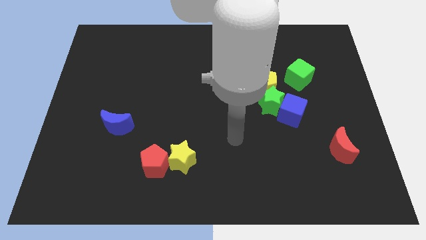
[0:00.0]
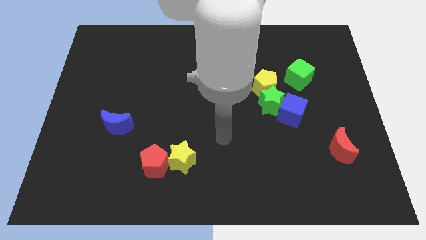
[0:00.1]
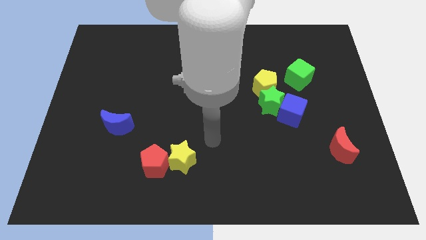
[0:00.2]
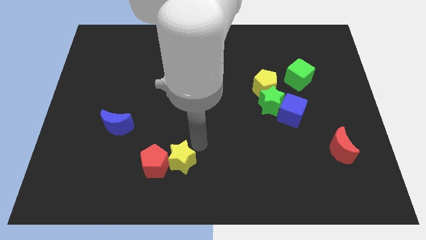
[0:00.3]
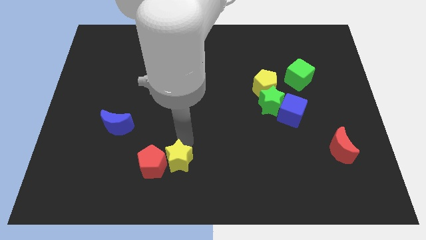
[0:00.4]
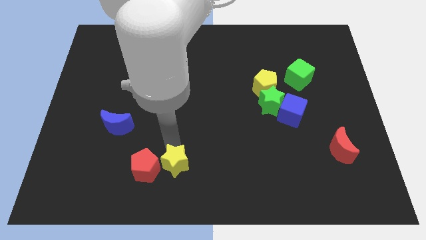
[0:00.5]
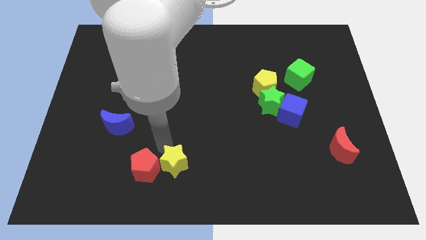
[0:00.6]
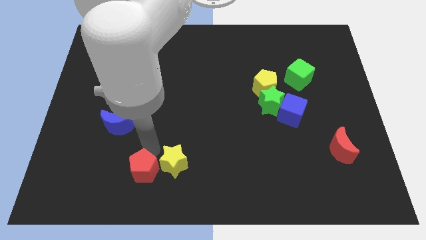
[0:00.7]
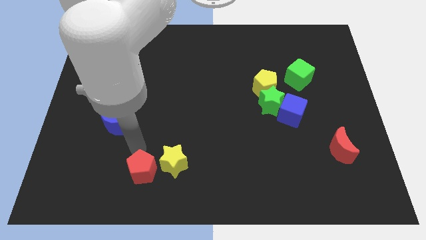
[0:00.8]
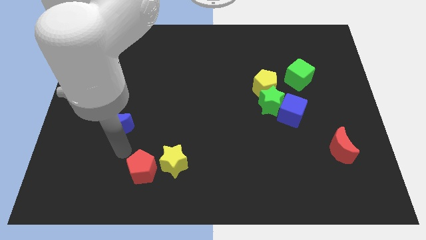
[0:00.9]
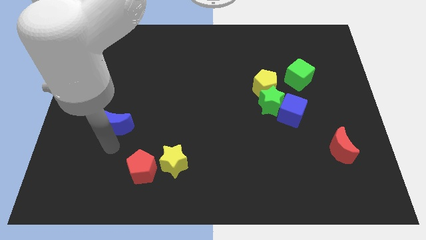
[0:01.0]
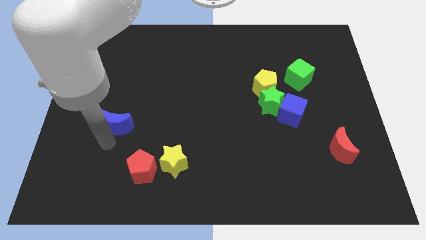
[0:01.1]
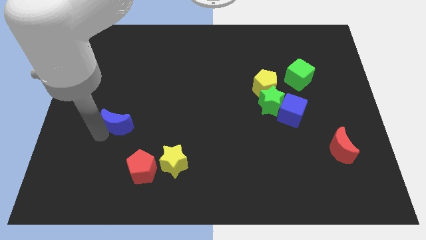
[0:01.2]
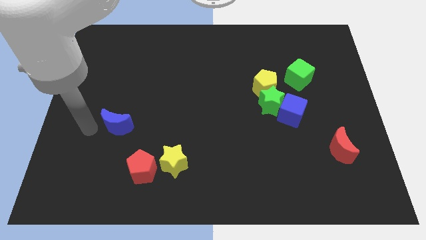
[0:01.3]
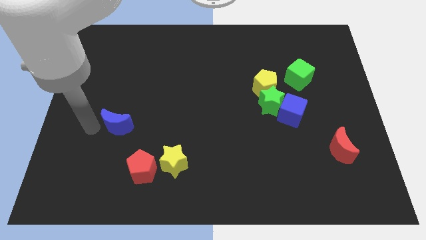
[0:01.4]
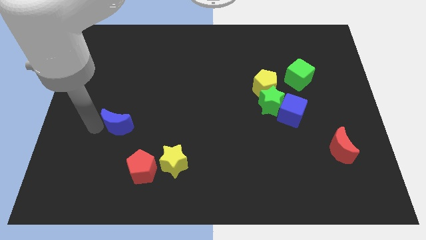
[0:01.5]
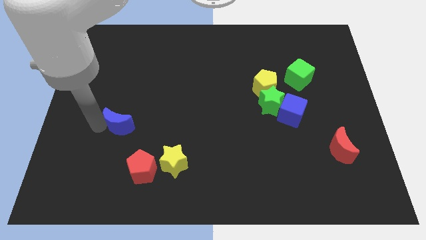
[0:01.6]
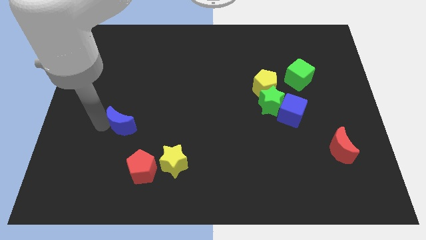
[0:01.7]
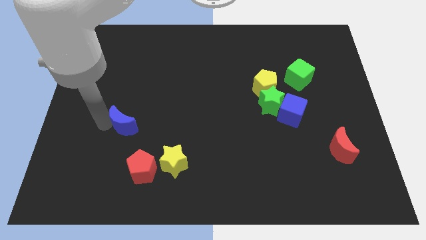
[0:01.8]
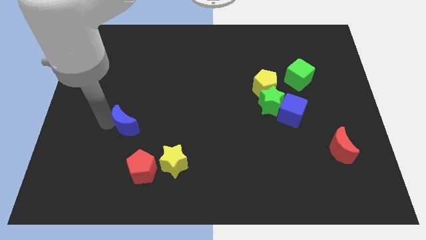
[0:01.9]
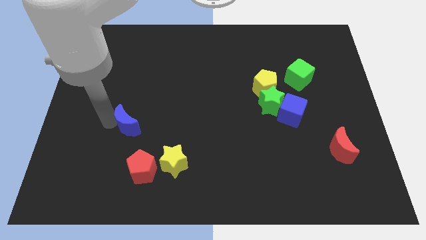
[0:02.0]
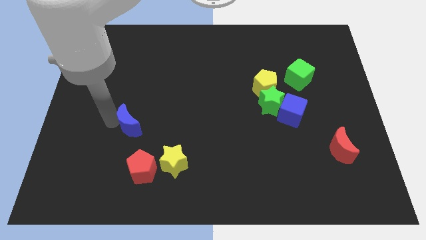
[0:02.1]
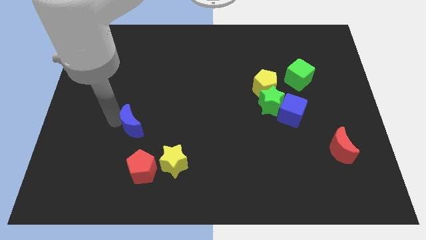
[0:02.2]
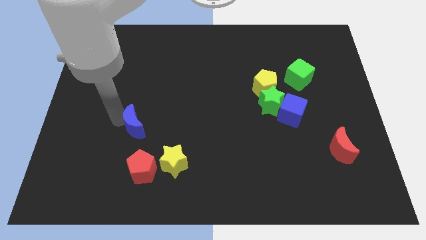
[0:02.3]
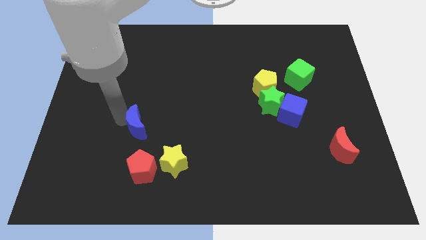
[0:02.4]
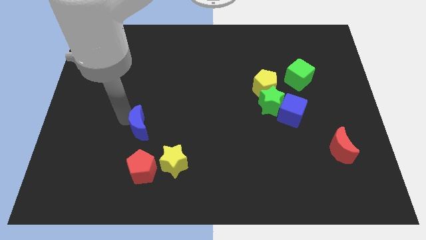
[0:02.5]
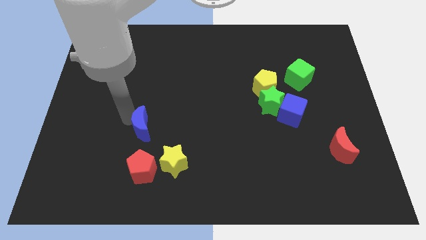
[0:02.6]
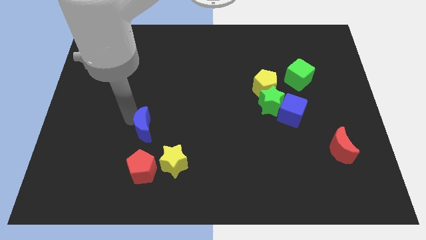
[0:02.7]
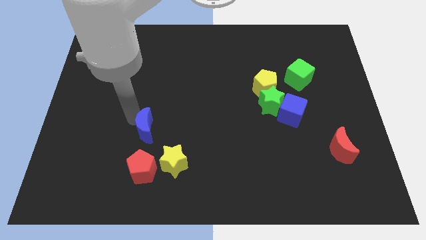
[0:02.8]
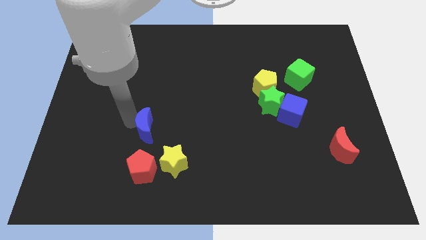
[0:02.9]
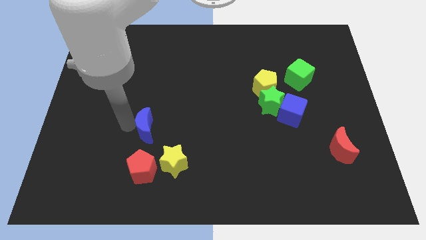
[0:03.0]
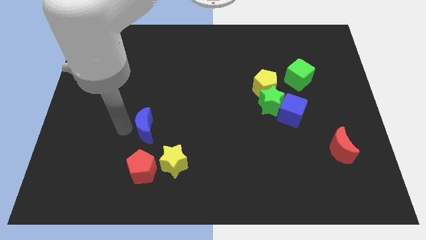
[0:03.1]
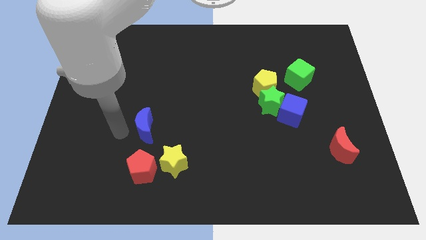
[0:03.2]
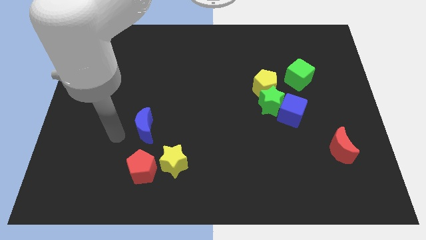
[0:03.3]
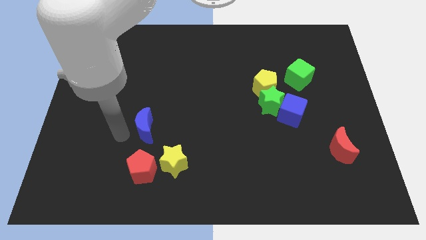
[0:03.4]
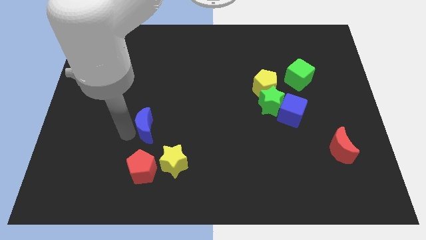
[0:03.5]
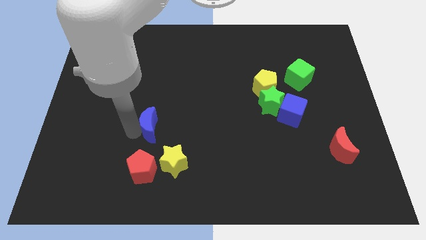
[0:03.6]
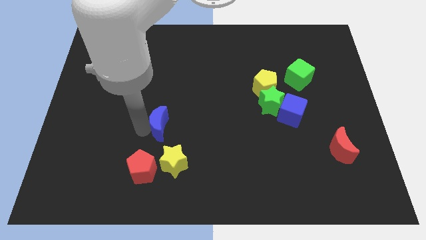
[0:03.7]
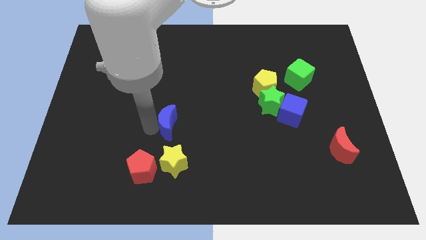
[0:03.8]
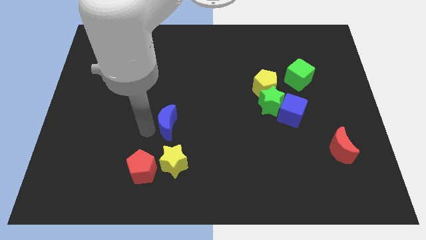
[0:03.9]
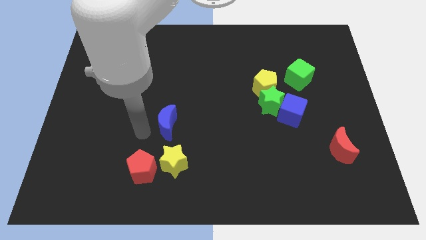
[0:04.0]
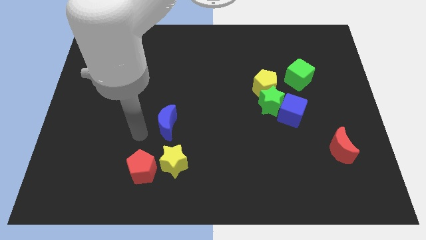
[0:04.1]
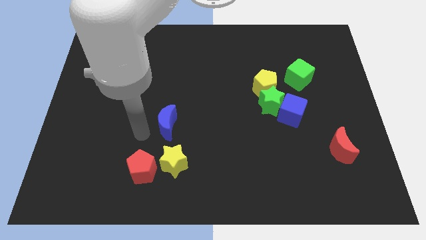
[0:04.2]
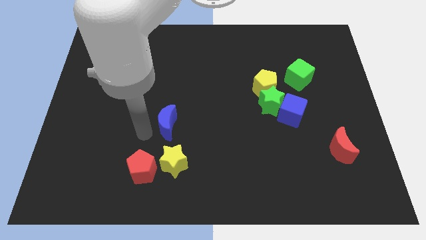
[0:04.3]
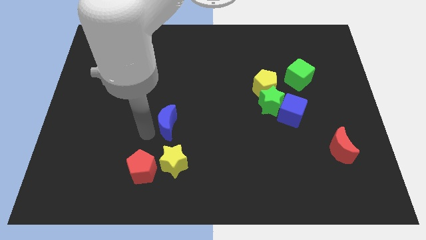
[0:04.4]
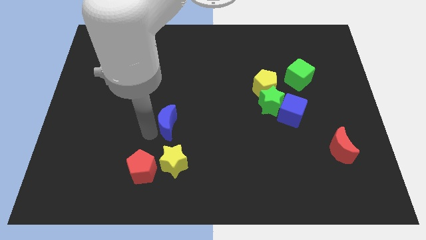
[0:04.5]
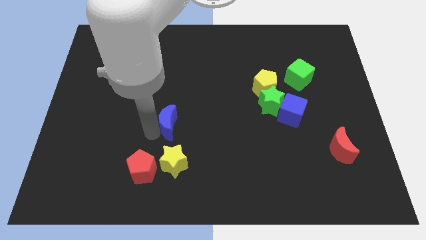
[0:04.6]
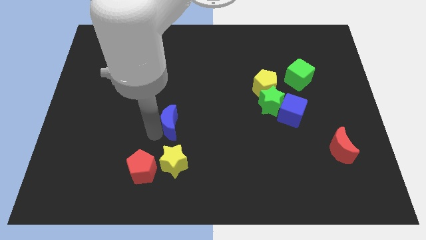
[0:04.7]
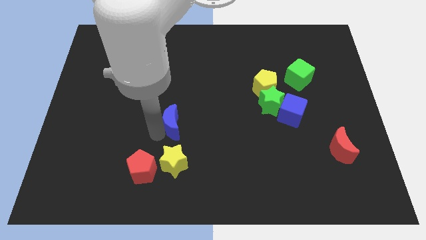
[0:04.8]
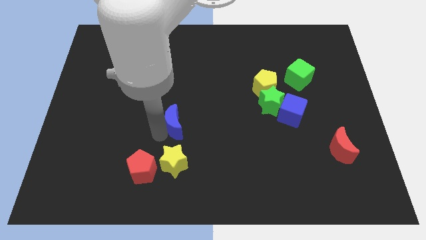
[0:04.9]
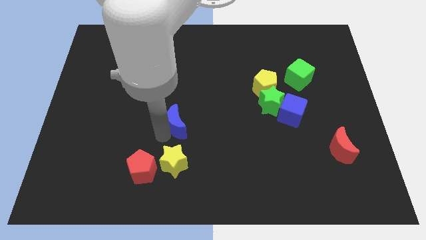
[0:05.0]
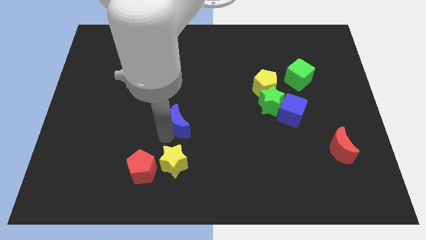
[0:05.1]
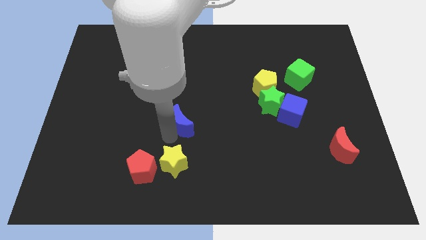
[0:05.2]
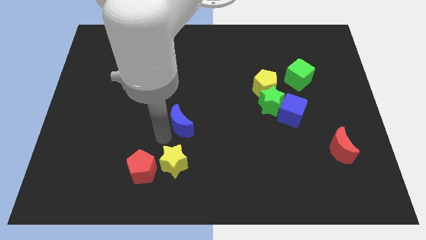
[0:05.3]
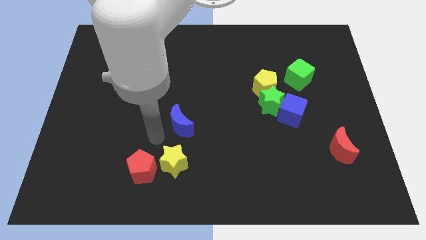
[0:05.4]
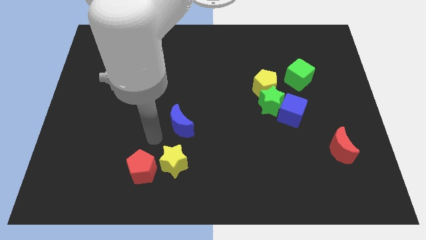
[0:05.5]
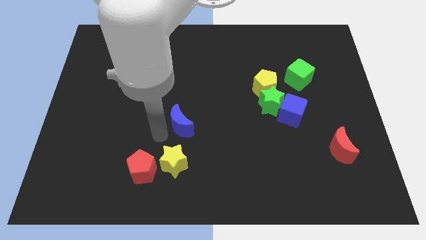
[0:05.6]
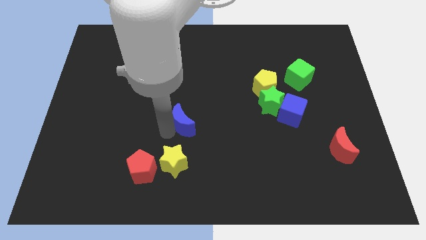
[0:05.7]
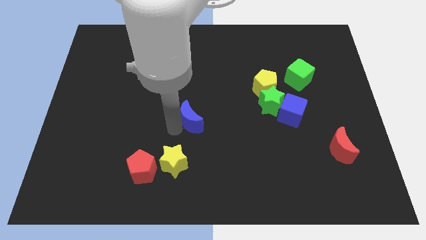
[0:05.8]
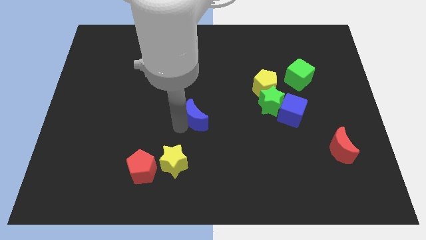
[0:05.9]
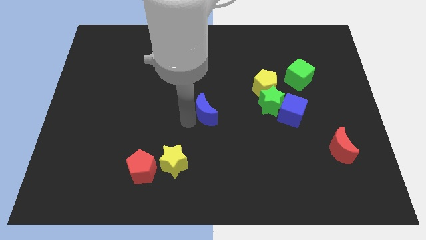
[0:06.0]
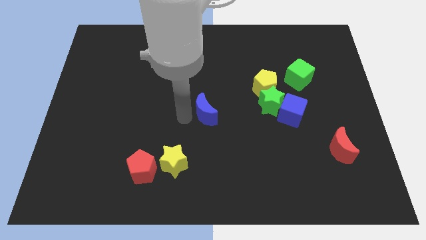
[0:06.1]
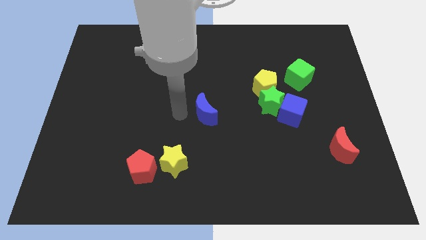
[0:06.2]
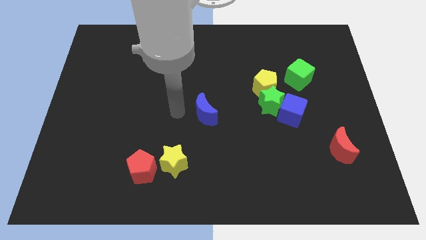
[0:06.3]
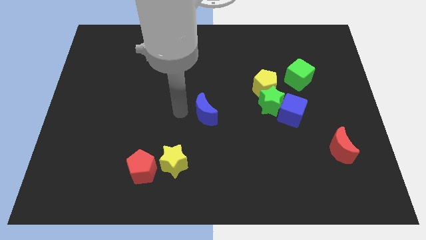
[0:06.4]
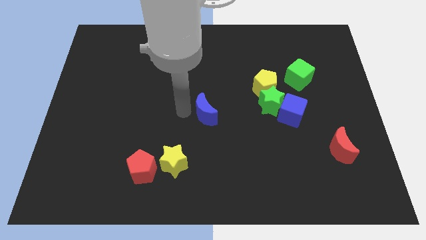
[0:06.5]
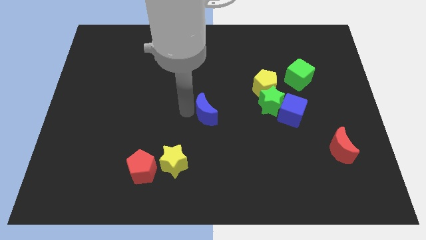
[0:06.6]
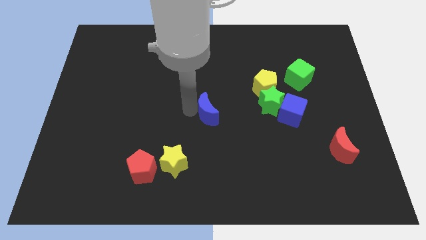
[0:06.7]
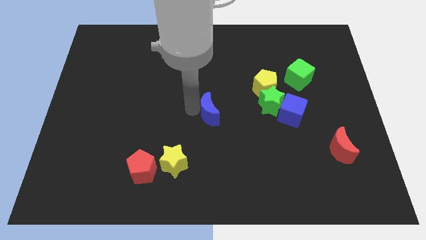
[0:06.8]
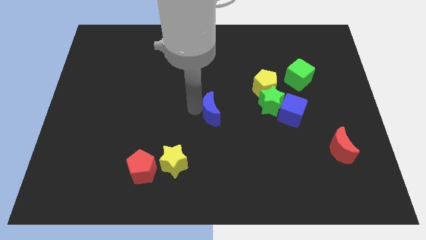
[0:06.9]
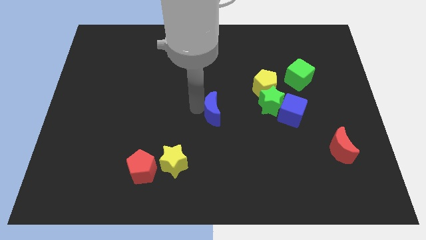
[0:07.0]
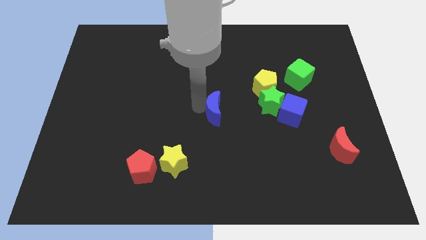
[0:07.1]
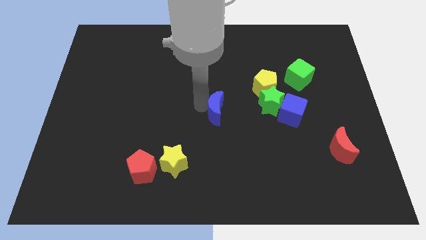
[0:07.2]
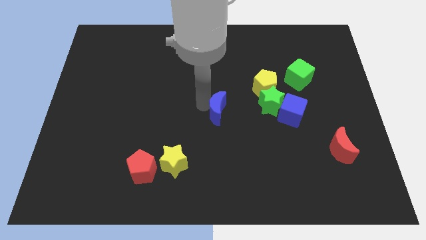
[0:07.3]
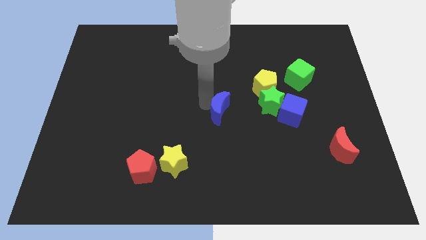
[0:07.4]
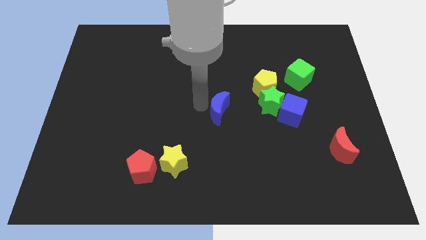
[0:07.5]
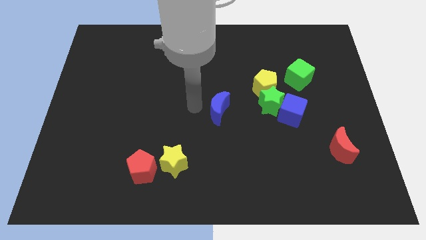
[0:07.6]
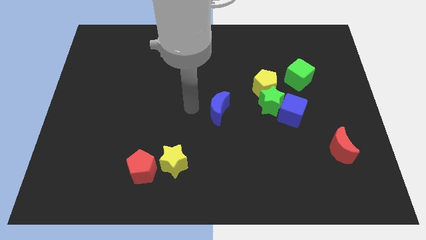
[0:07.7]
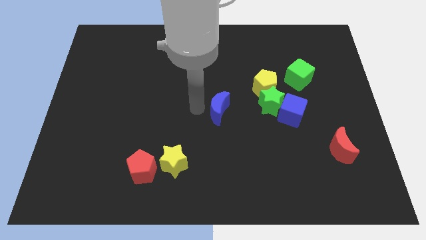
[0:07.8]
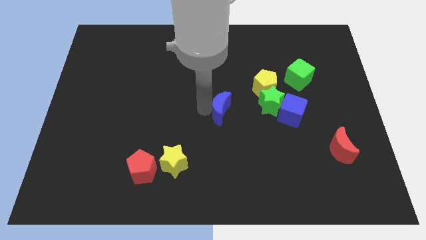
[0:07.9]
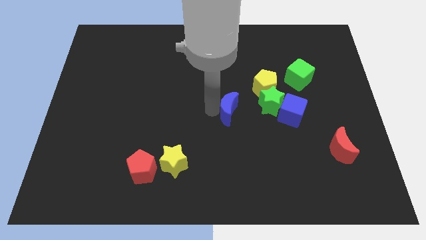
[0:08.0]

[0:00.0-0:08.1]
slide the blue moon to the left side of the blue cube
